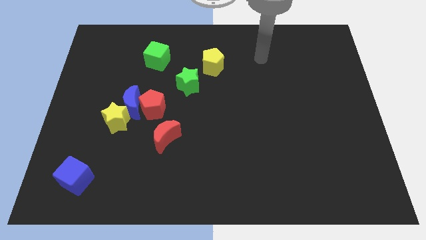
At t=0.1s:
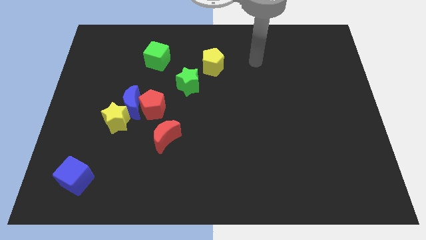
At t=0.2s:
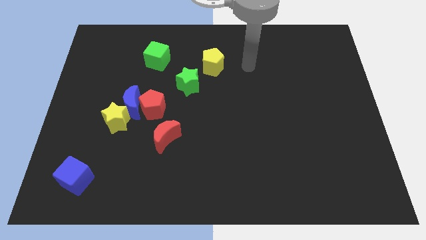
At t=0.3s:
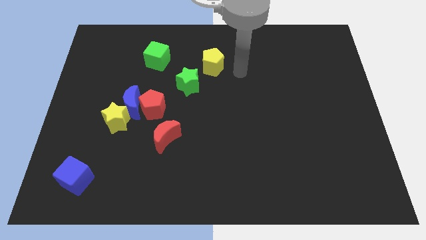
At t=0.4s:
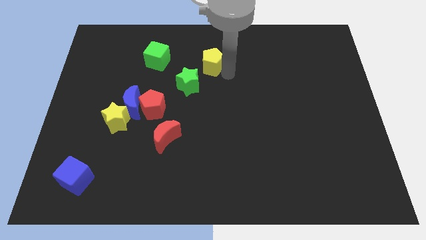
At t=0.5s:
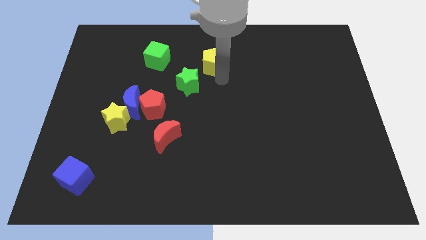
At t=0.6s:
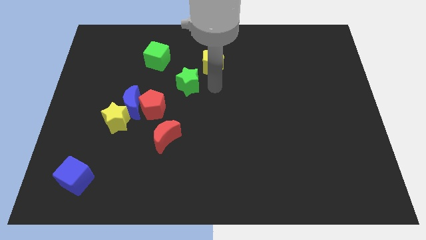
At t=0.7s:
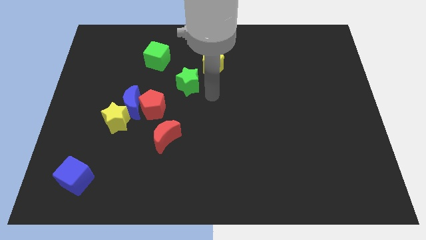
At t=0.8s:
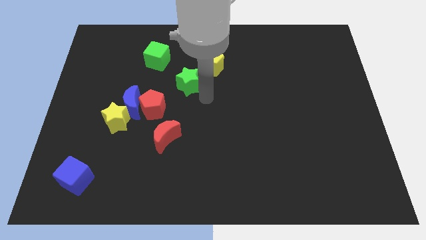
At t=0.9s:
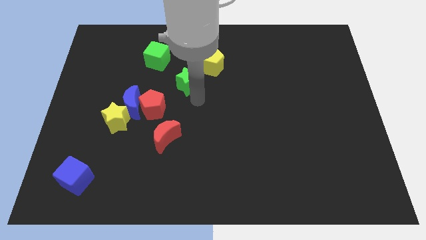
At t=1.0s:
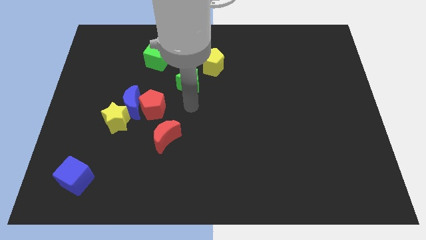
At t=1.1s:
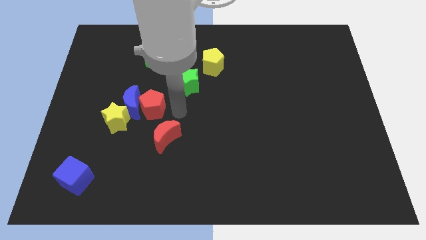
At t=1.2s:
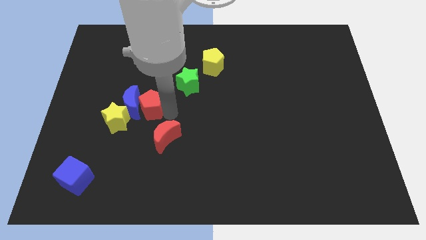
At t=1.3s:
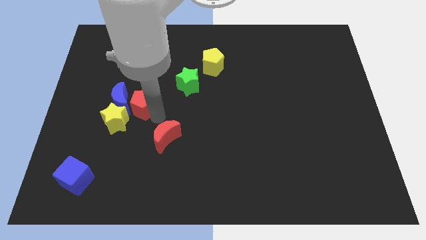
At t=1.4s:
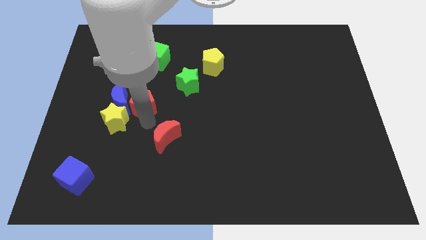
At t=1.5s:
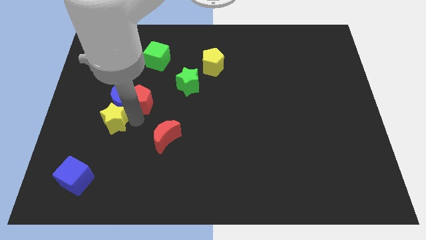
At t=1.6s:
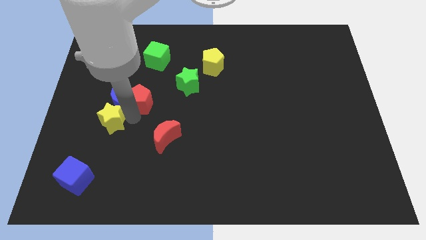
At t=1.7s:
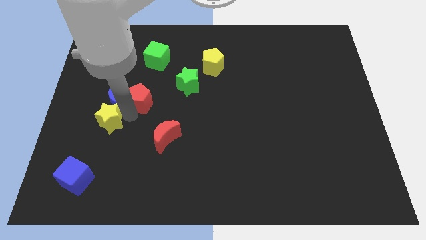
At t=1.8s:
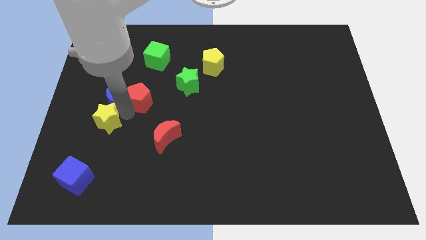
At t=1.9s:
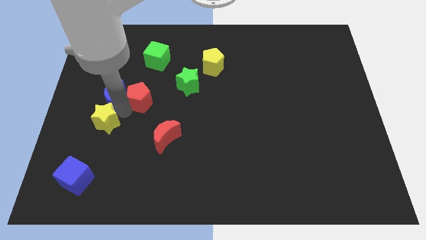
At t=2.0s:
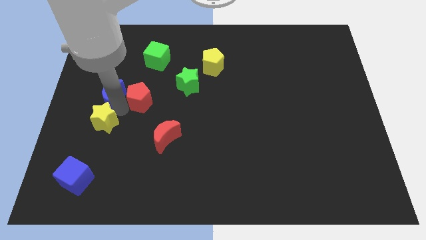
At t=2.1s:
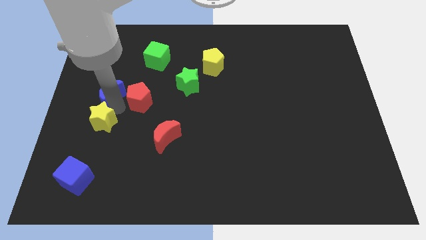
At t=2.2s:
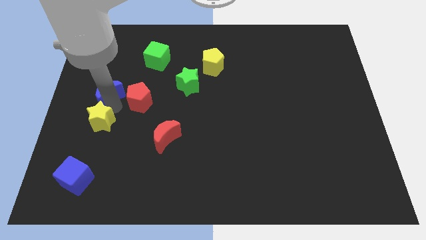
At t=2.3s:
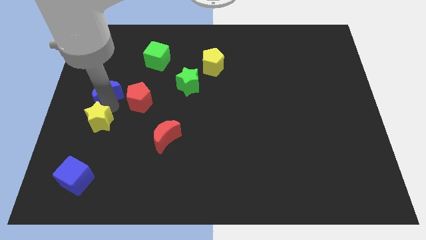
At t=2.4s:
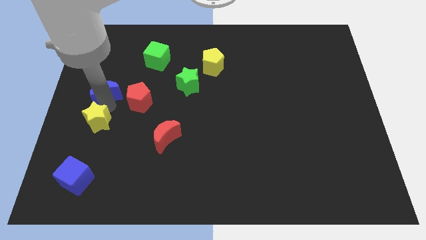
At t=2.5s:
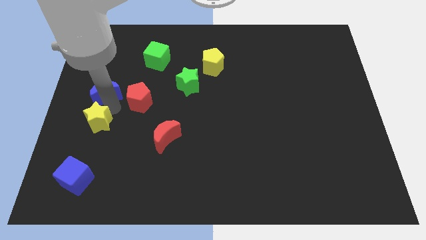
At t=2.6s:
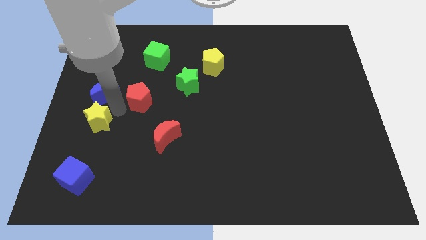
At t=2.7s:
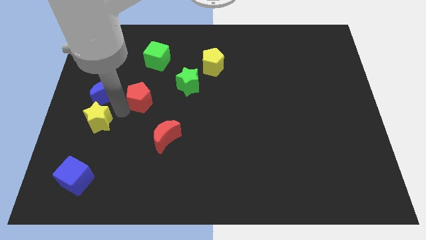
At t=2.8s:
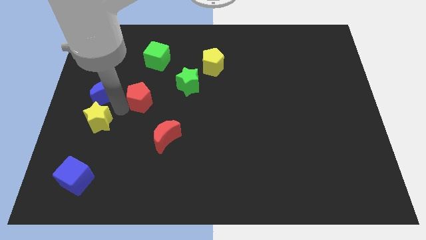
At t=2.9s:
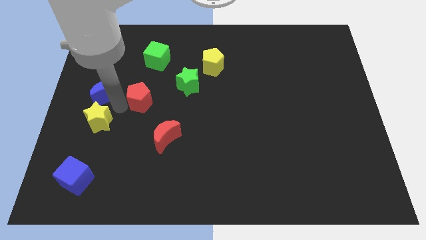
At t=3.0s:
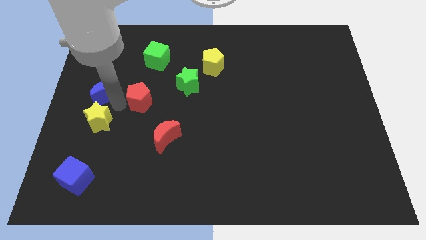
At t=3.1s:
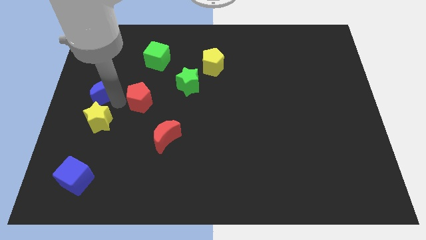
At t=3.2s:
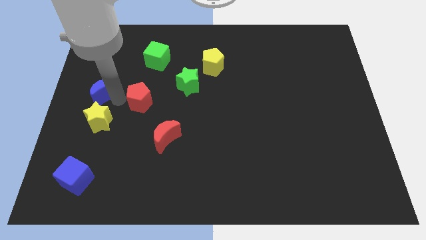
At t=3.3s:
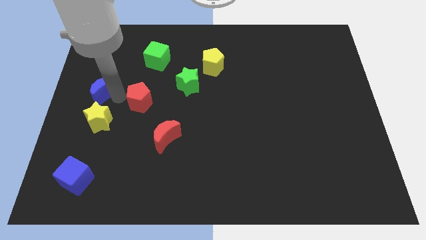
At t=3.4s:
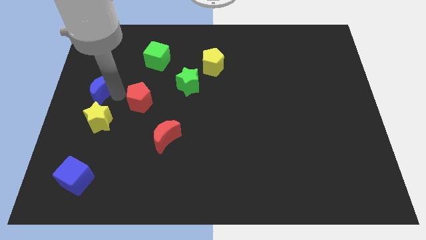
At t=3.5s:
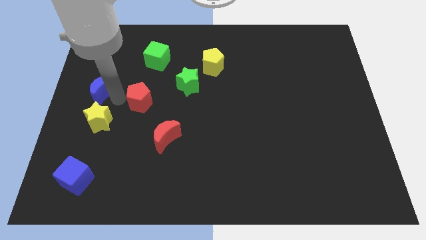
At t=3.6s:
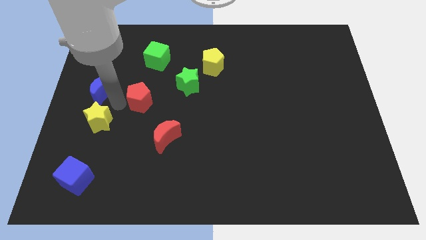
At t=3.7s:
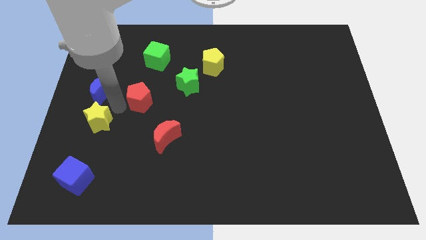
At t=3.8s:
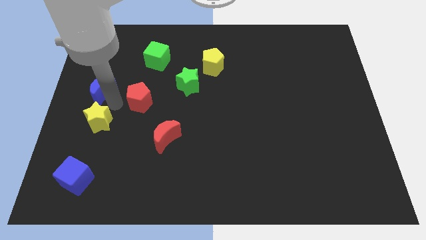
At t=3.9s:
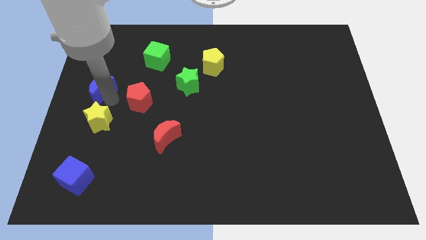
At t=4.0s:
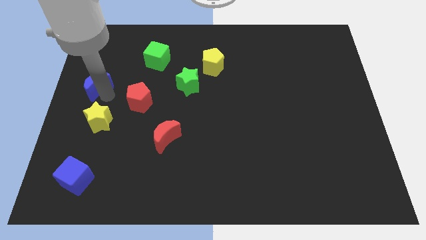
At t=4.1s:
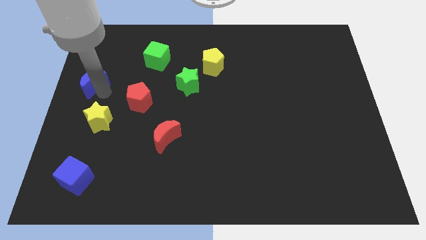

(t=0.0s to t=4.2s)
move the blue moon away from the red pentagon and yellow star

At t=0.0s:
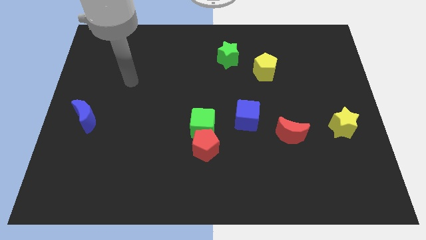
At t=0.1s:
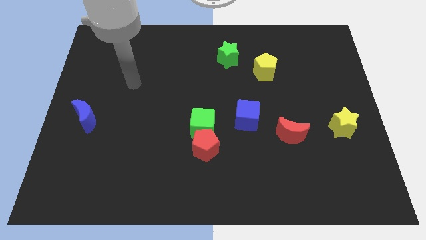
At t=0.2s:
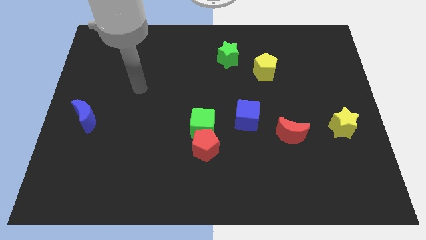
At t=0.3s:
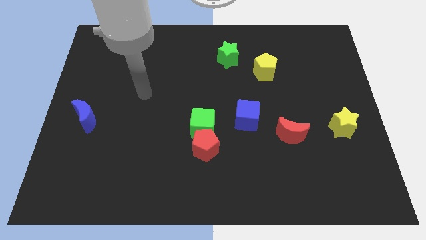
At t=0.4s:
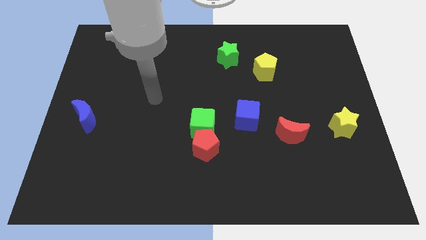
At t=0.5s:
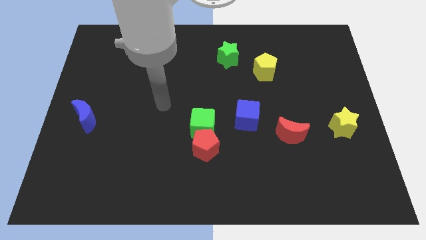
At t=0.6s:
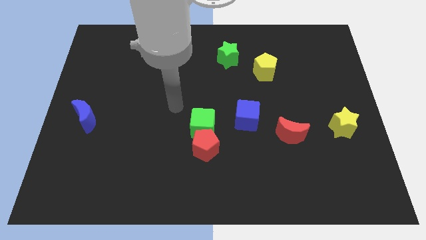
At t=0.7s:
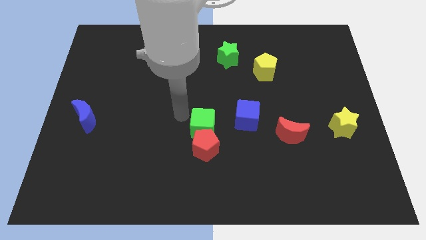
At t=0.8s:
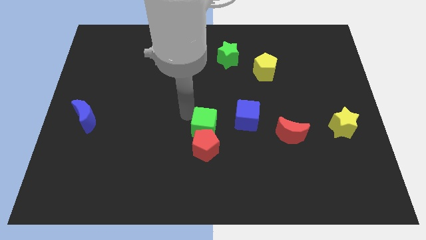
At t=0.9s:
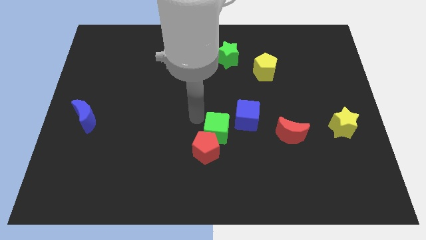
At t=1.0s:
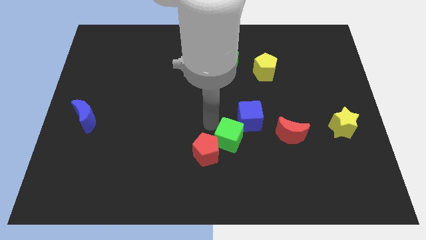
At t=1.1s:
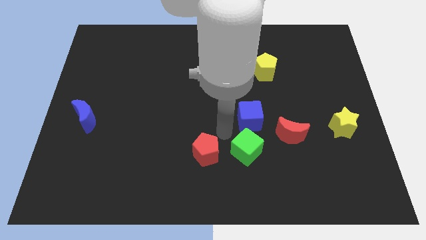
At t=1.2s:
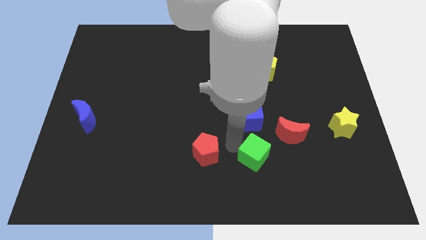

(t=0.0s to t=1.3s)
separate the red pentagon from the green cube

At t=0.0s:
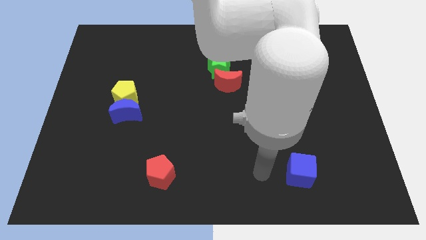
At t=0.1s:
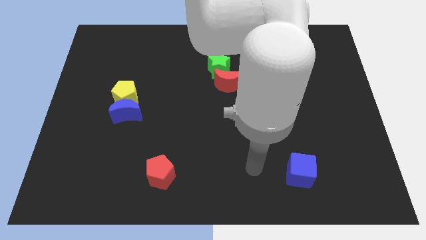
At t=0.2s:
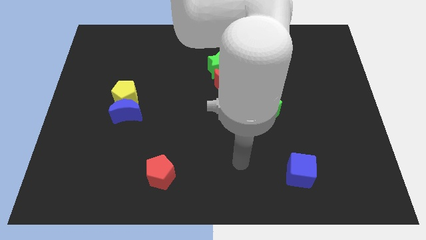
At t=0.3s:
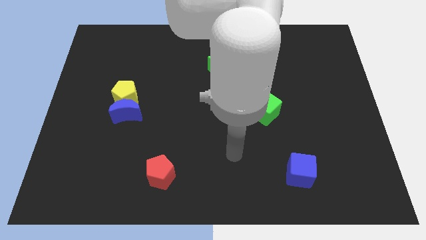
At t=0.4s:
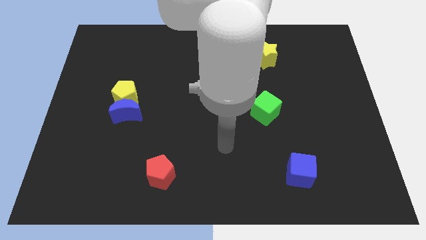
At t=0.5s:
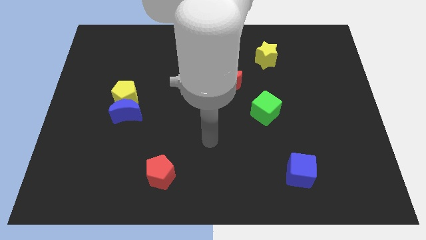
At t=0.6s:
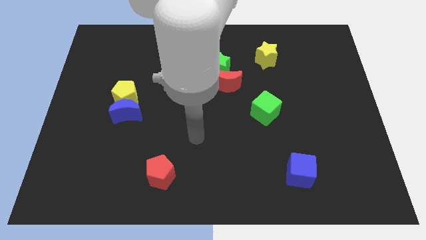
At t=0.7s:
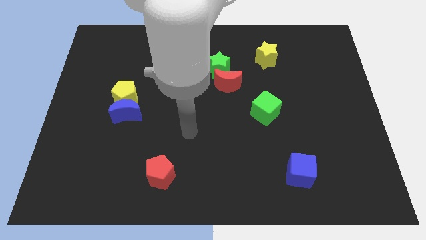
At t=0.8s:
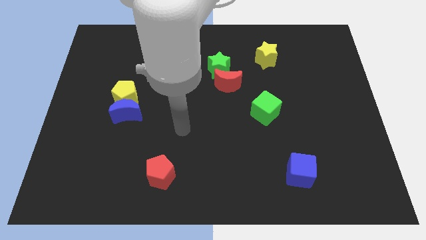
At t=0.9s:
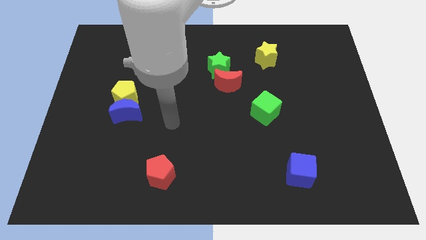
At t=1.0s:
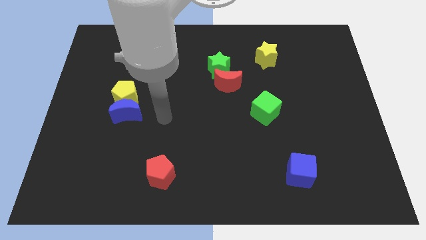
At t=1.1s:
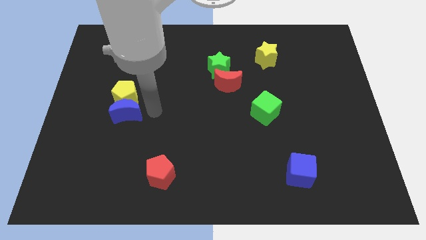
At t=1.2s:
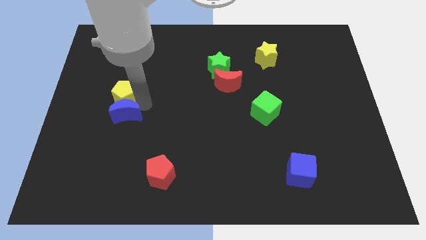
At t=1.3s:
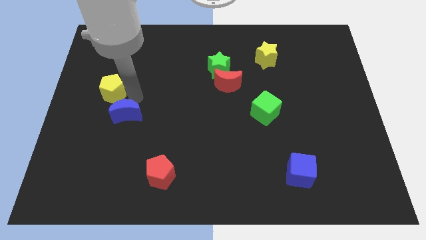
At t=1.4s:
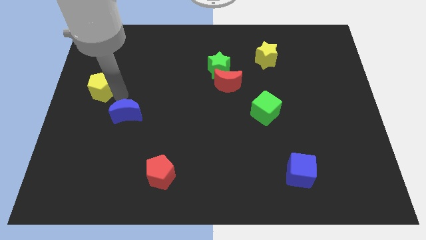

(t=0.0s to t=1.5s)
pull the blue moon apart from the yellow pentagon

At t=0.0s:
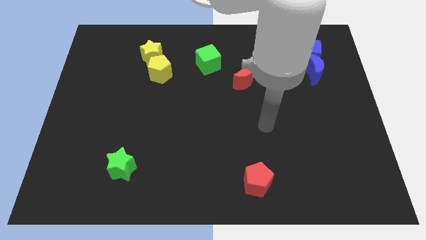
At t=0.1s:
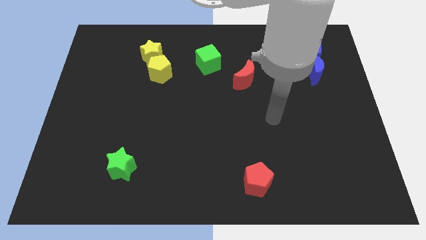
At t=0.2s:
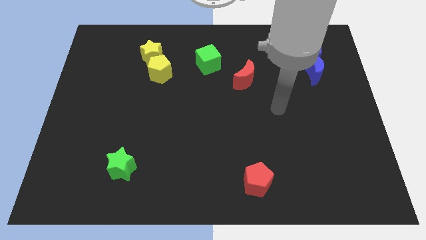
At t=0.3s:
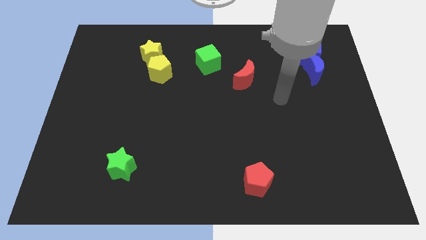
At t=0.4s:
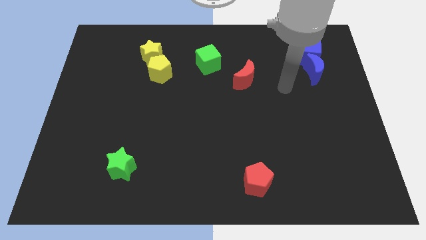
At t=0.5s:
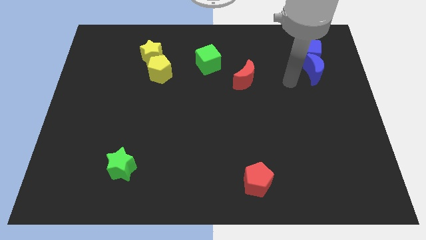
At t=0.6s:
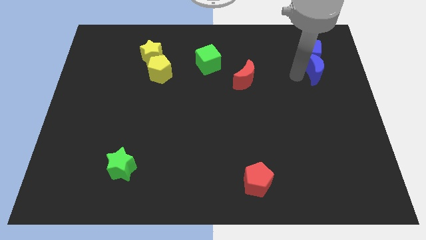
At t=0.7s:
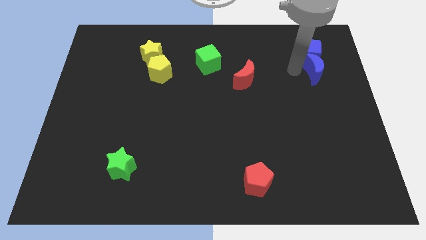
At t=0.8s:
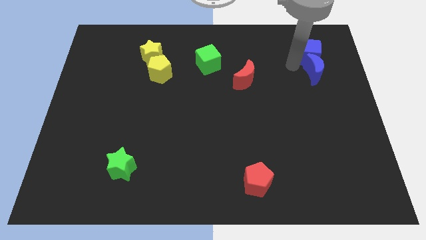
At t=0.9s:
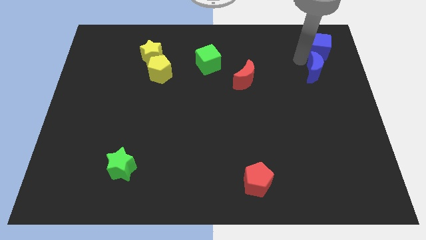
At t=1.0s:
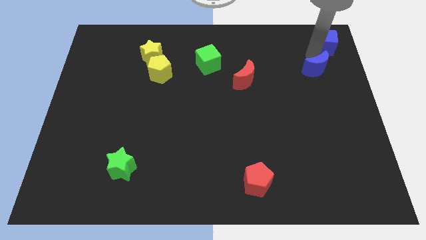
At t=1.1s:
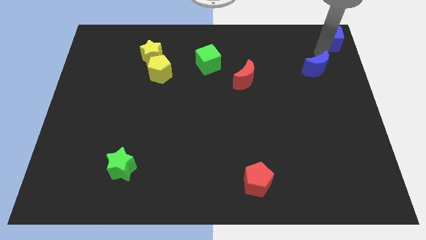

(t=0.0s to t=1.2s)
separate the blue moon from the blue cube

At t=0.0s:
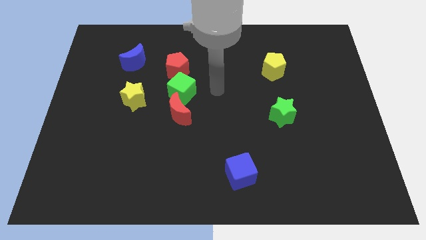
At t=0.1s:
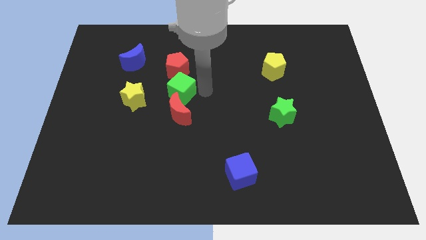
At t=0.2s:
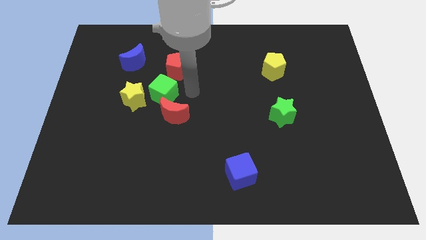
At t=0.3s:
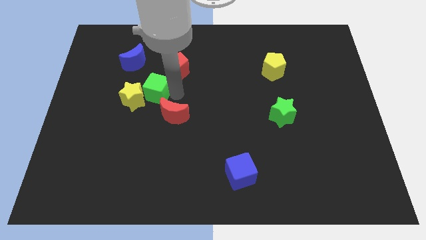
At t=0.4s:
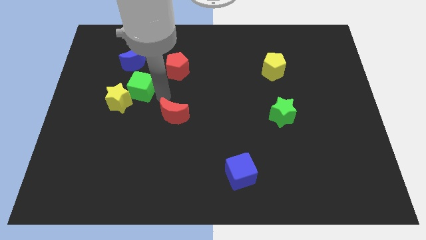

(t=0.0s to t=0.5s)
separate the red moon from the green cube

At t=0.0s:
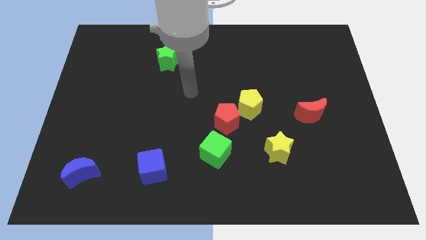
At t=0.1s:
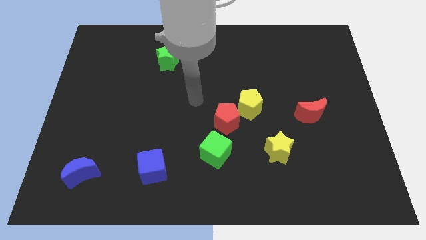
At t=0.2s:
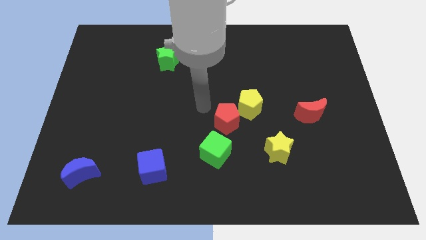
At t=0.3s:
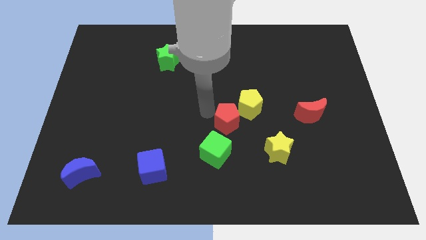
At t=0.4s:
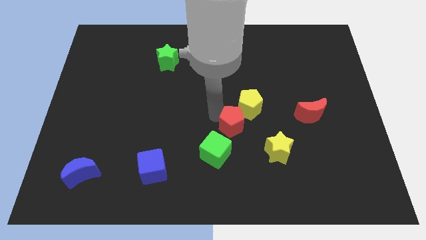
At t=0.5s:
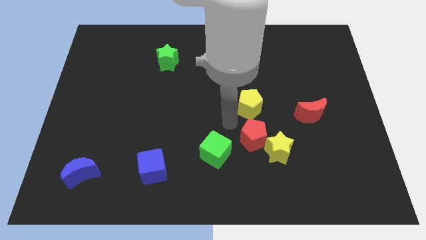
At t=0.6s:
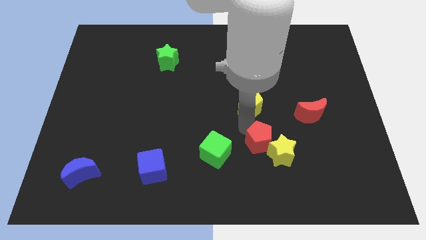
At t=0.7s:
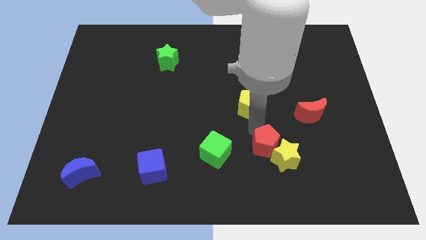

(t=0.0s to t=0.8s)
move the yellow pentagon away from the red pentagon
